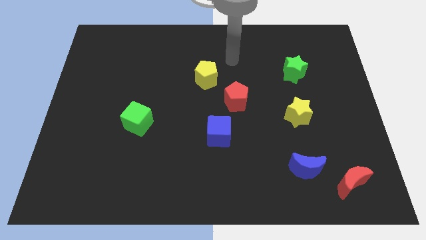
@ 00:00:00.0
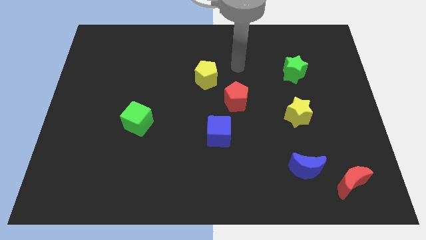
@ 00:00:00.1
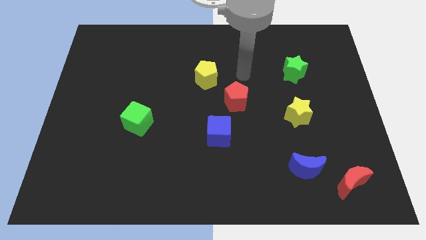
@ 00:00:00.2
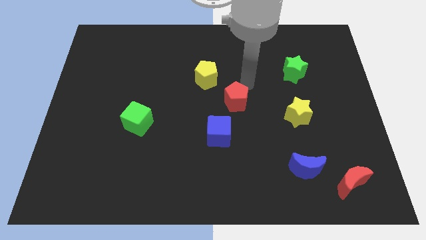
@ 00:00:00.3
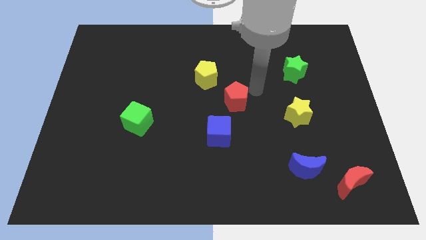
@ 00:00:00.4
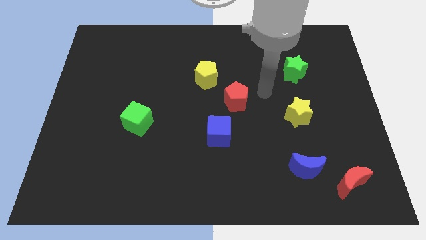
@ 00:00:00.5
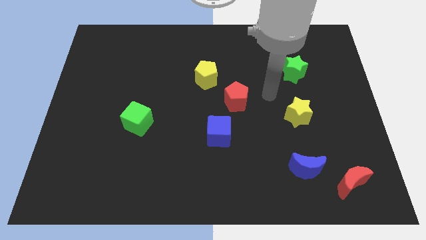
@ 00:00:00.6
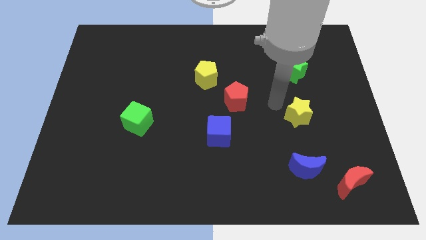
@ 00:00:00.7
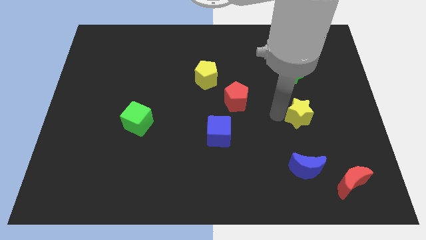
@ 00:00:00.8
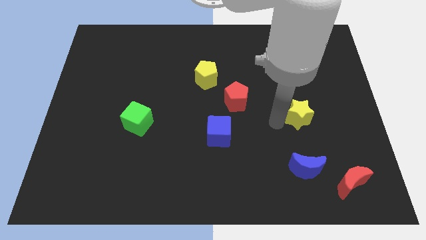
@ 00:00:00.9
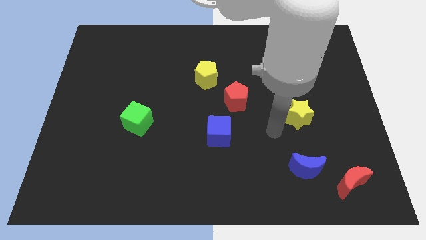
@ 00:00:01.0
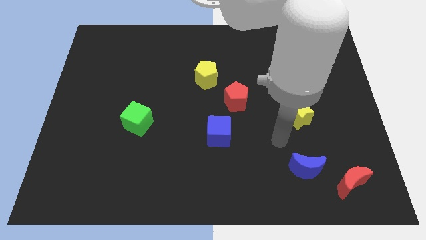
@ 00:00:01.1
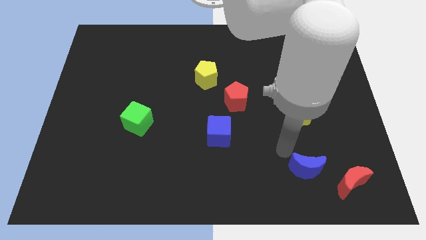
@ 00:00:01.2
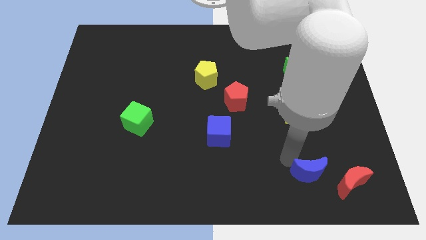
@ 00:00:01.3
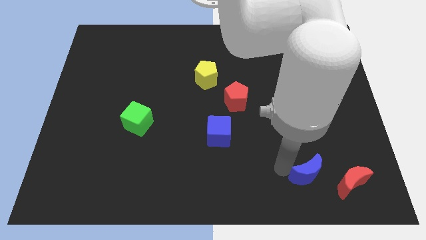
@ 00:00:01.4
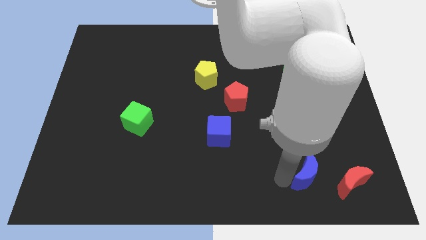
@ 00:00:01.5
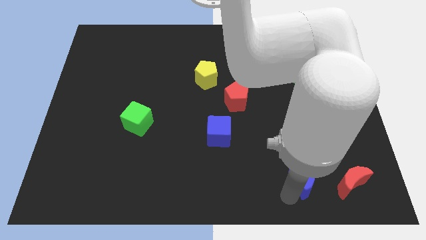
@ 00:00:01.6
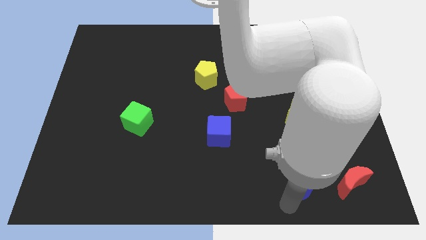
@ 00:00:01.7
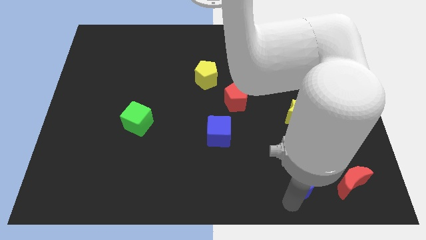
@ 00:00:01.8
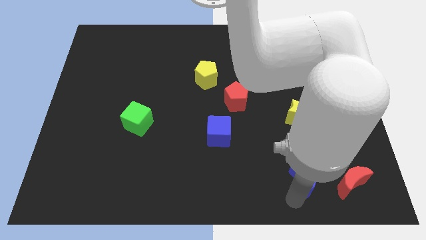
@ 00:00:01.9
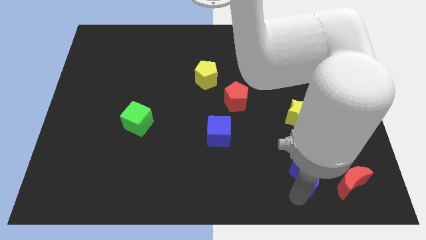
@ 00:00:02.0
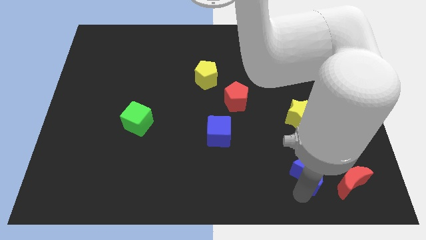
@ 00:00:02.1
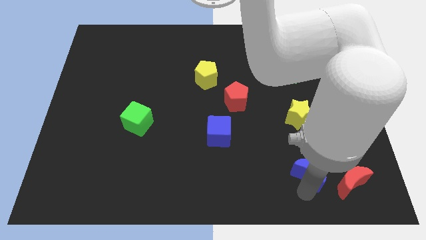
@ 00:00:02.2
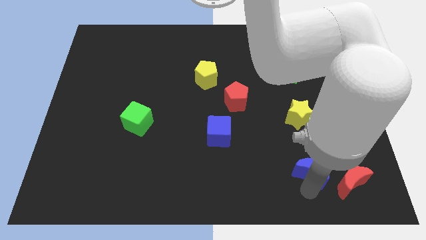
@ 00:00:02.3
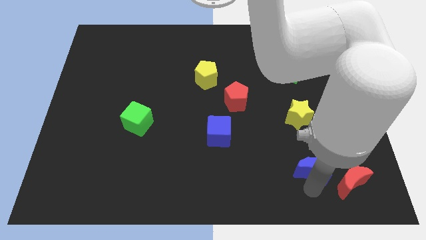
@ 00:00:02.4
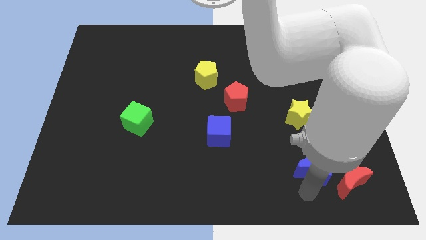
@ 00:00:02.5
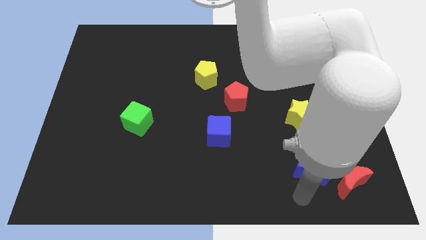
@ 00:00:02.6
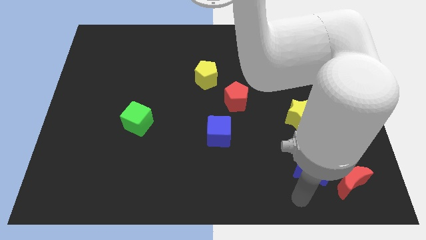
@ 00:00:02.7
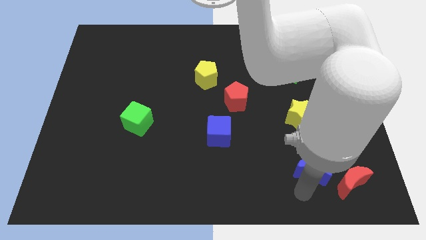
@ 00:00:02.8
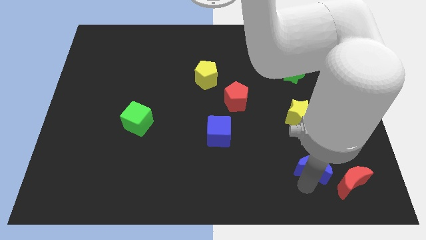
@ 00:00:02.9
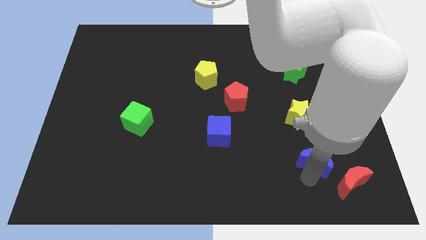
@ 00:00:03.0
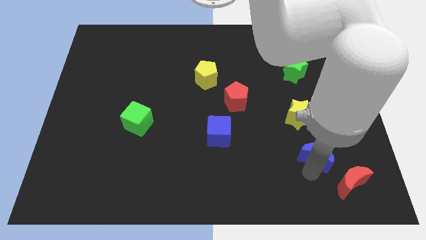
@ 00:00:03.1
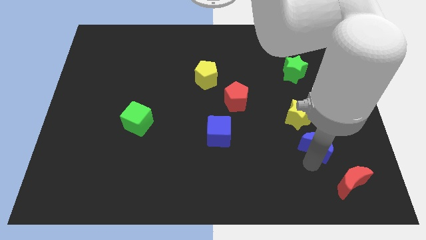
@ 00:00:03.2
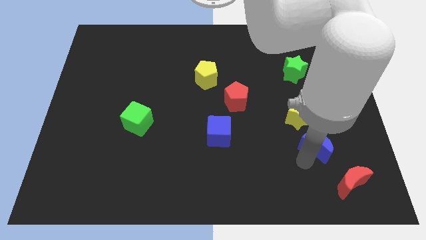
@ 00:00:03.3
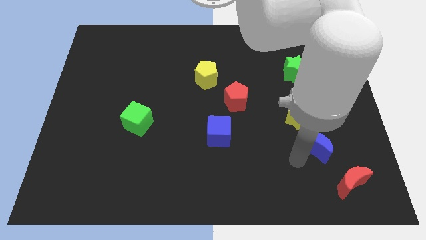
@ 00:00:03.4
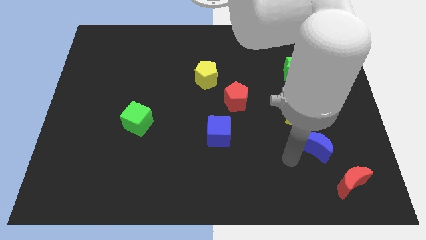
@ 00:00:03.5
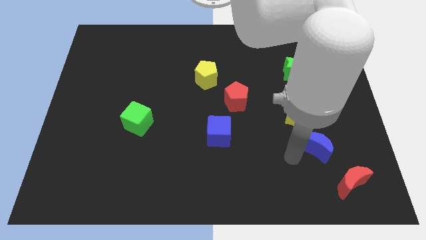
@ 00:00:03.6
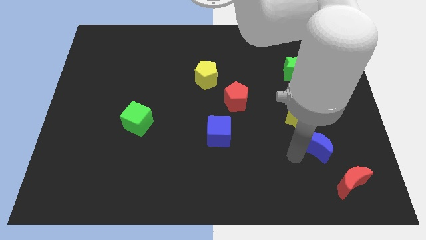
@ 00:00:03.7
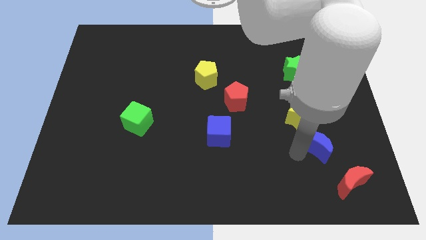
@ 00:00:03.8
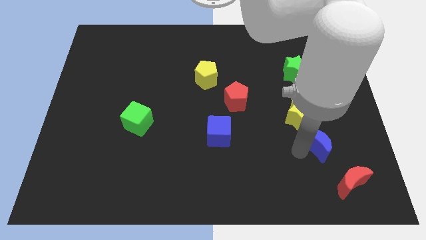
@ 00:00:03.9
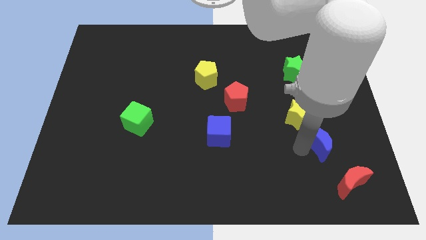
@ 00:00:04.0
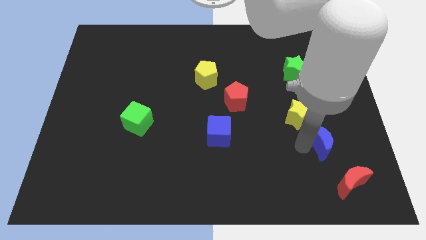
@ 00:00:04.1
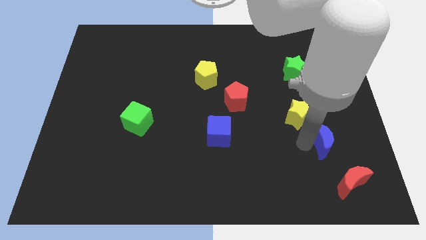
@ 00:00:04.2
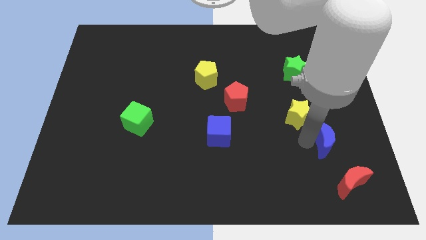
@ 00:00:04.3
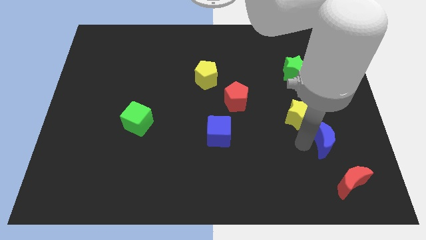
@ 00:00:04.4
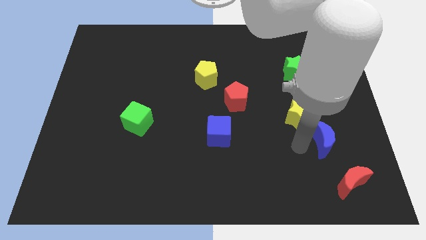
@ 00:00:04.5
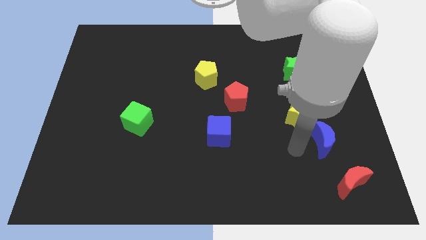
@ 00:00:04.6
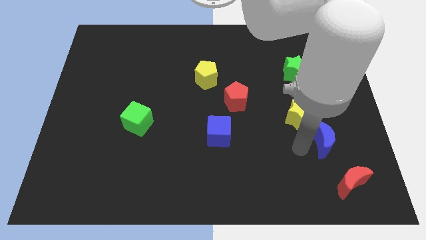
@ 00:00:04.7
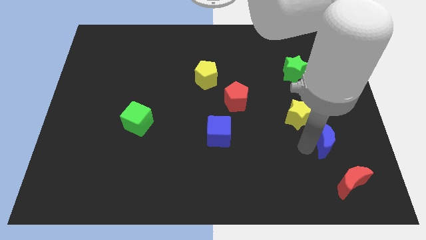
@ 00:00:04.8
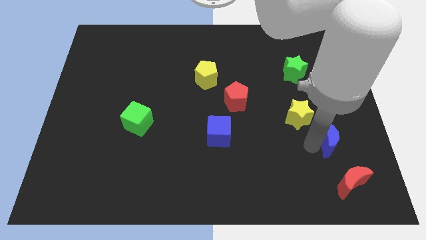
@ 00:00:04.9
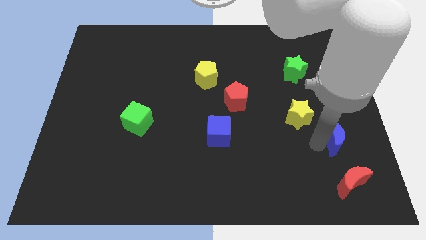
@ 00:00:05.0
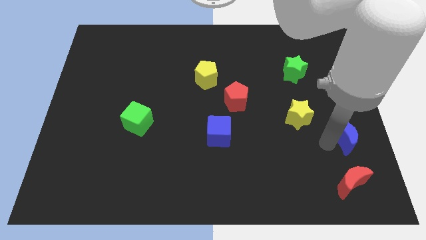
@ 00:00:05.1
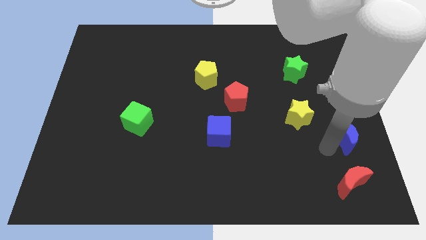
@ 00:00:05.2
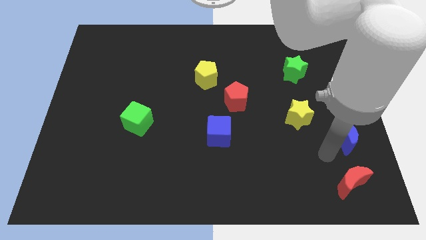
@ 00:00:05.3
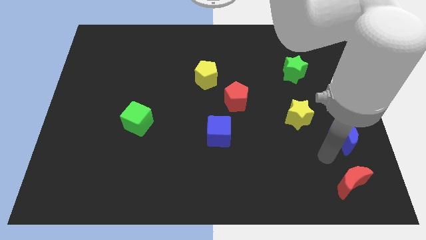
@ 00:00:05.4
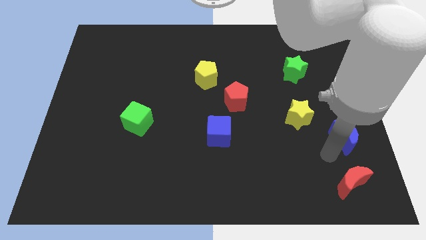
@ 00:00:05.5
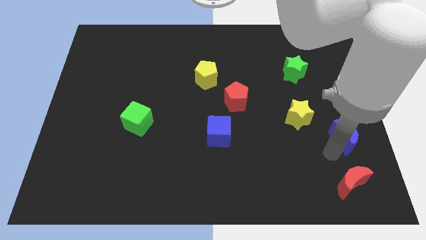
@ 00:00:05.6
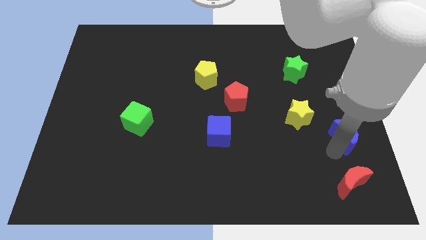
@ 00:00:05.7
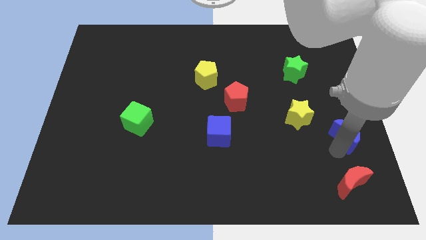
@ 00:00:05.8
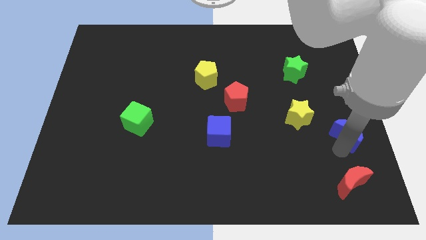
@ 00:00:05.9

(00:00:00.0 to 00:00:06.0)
slide the blue moon to the right side of the board
